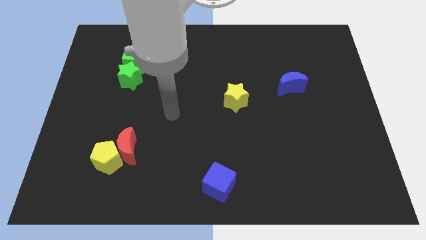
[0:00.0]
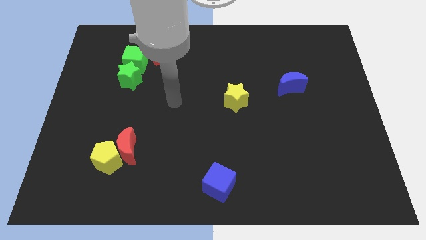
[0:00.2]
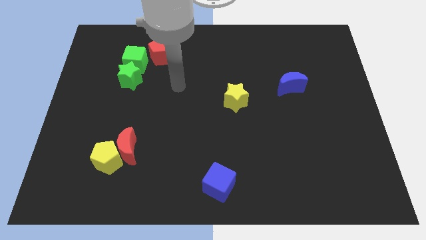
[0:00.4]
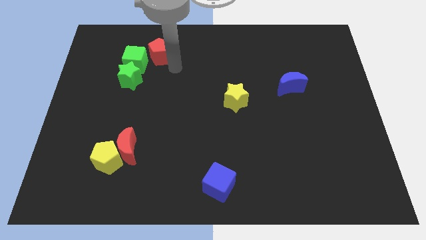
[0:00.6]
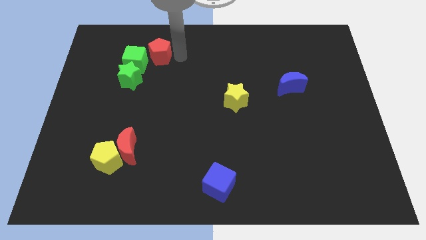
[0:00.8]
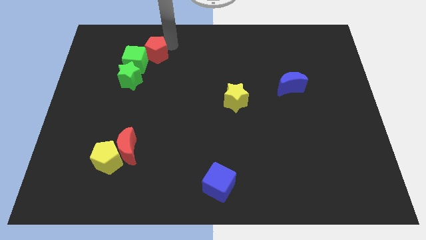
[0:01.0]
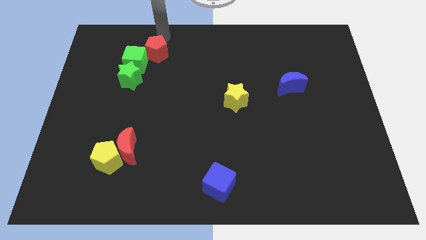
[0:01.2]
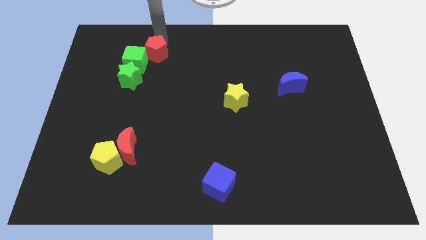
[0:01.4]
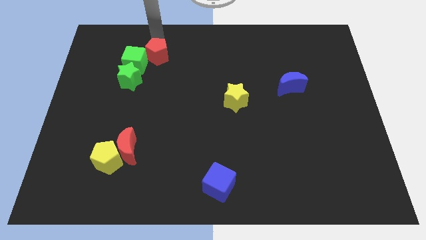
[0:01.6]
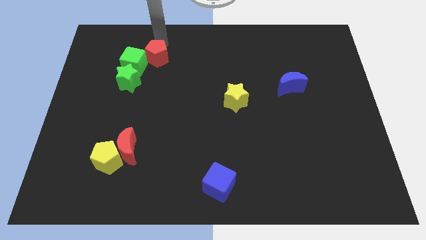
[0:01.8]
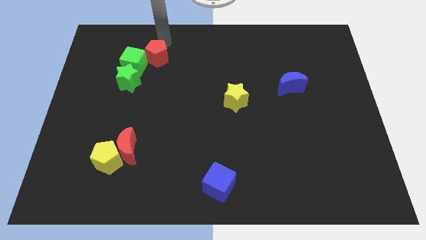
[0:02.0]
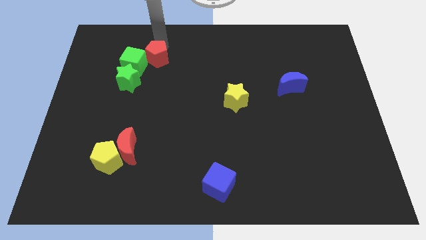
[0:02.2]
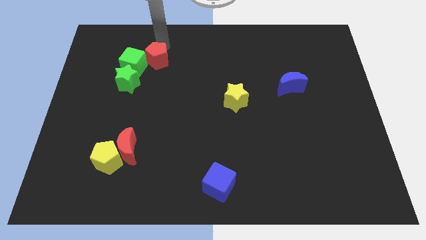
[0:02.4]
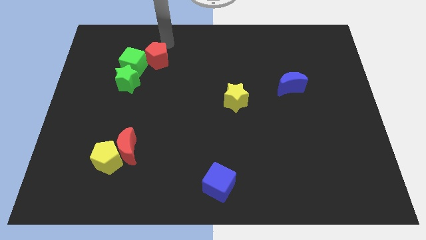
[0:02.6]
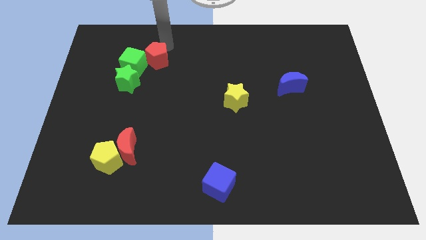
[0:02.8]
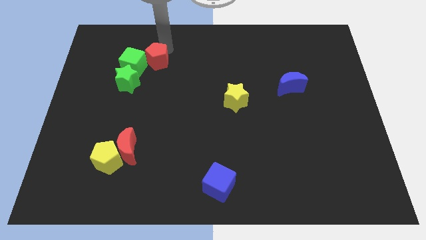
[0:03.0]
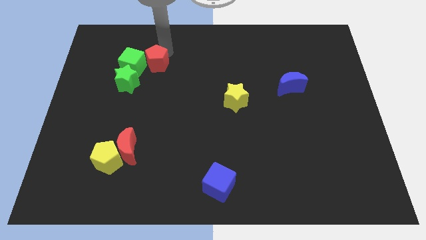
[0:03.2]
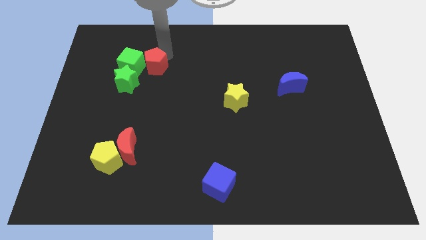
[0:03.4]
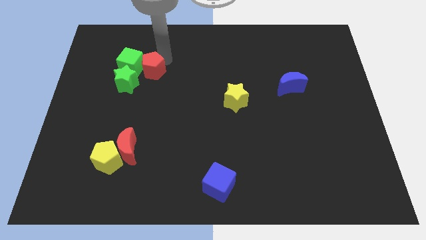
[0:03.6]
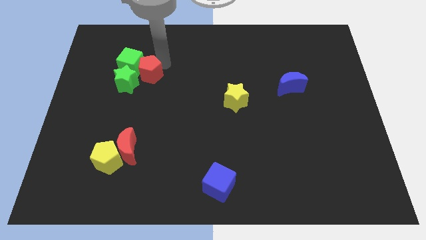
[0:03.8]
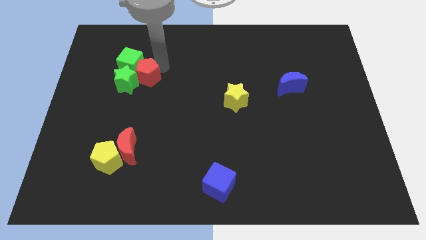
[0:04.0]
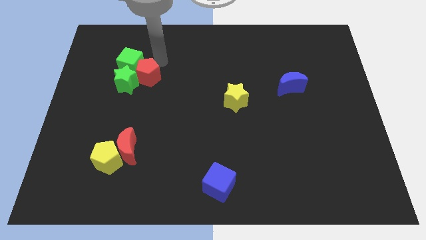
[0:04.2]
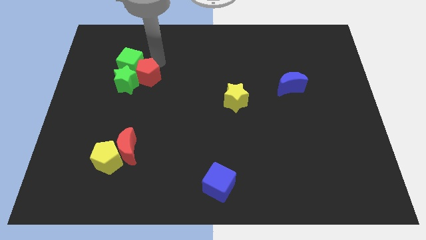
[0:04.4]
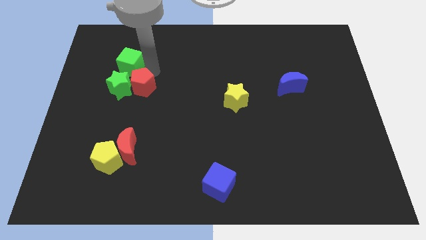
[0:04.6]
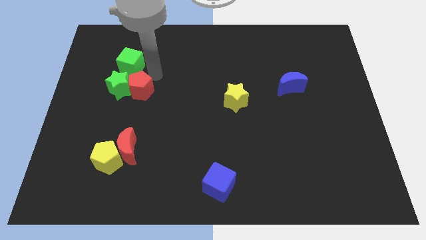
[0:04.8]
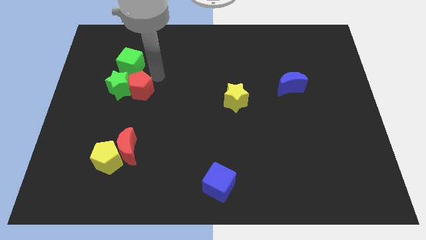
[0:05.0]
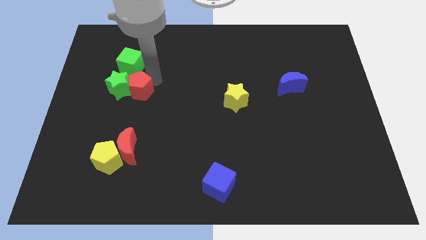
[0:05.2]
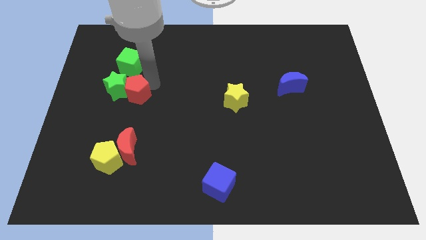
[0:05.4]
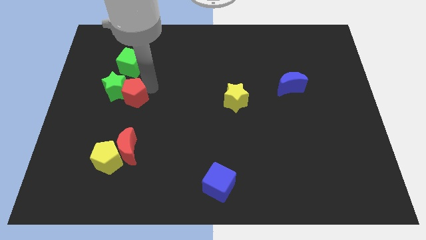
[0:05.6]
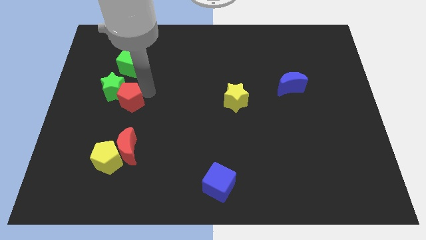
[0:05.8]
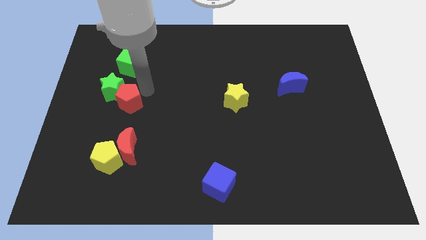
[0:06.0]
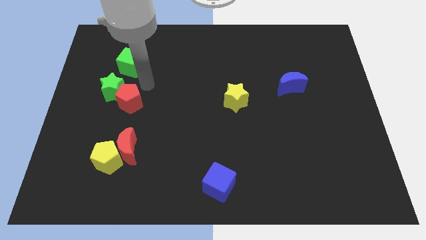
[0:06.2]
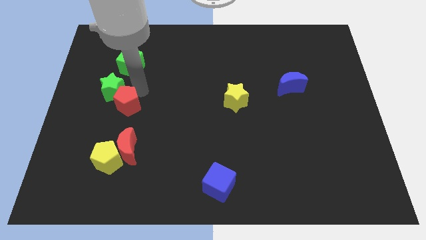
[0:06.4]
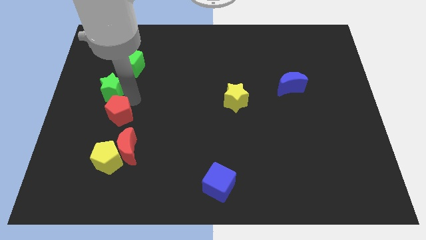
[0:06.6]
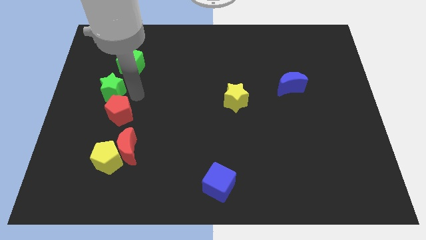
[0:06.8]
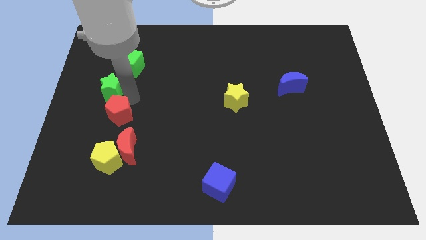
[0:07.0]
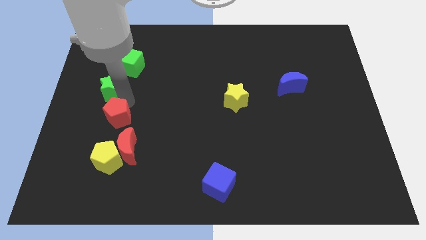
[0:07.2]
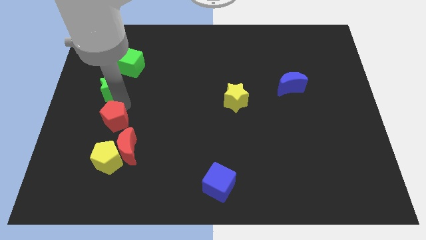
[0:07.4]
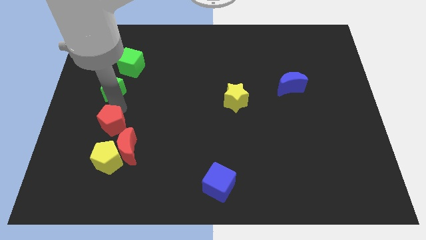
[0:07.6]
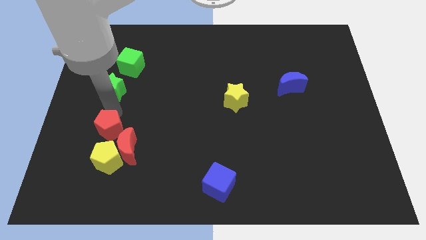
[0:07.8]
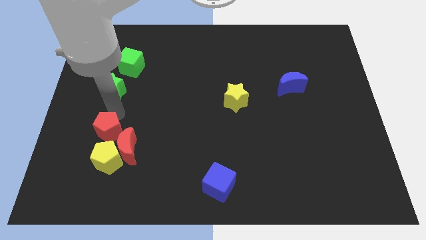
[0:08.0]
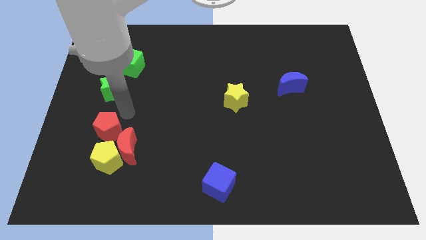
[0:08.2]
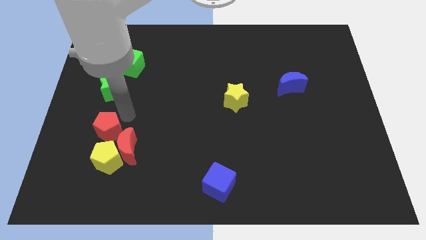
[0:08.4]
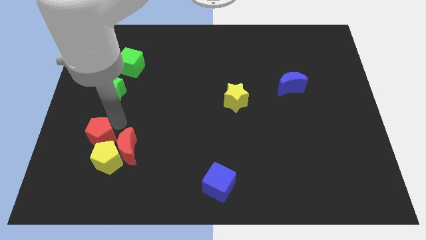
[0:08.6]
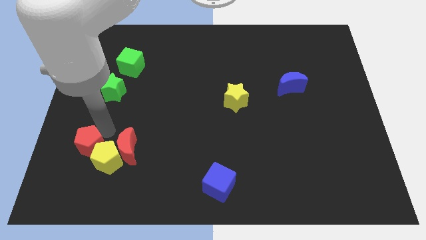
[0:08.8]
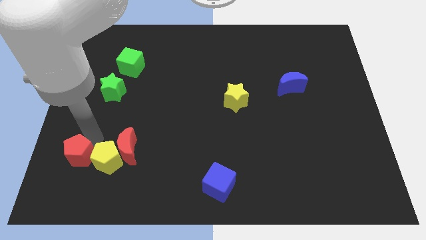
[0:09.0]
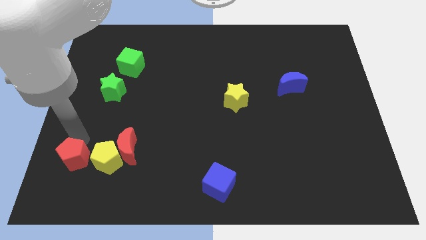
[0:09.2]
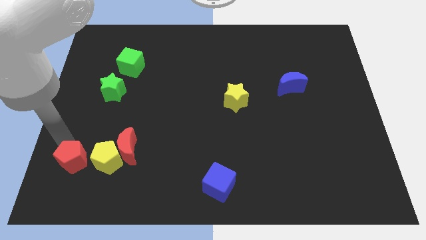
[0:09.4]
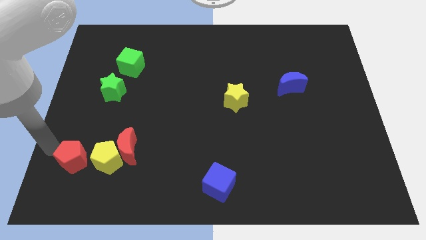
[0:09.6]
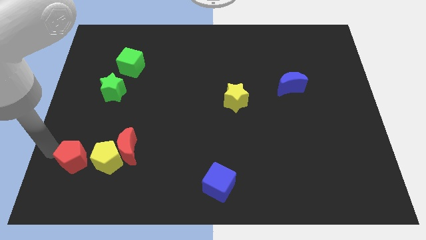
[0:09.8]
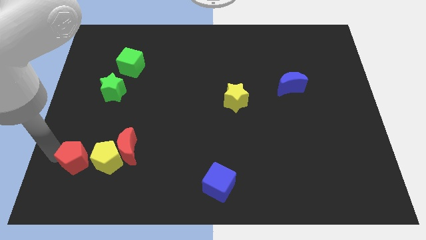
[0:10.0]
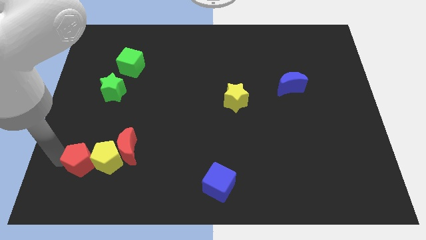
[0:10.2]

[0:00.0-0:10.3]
put the red pentagon to the bottom left side of the red moon

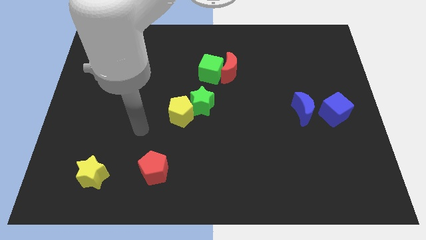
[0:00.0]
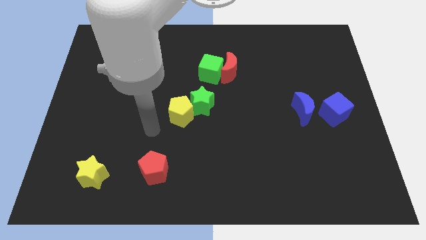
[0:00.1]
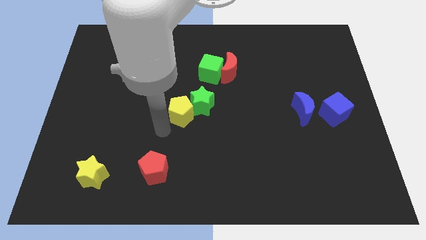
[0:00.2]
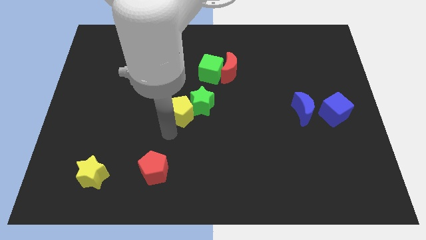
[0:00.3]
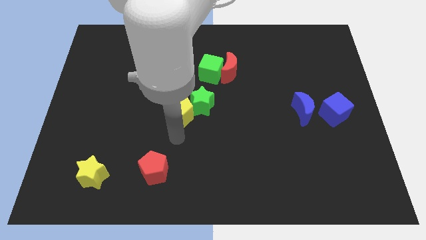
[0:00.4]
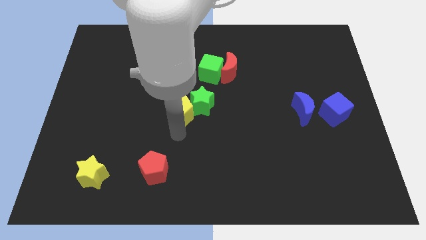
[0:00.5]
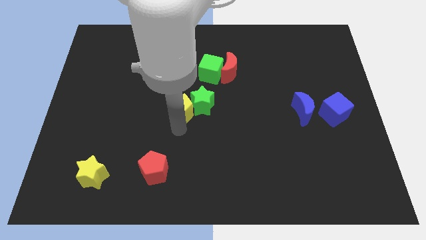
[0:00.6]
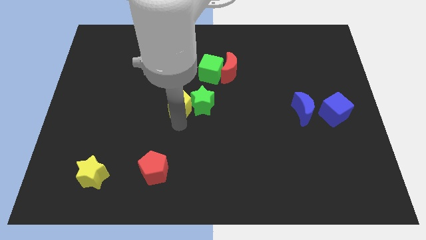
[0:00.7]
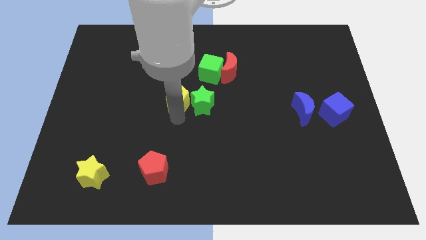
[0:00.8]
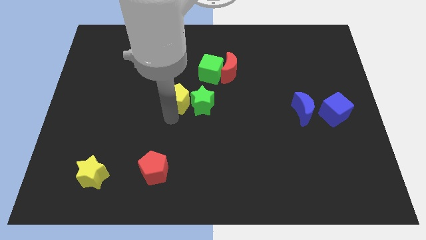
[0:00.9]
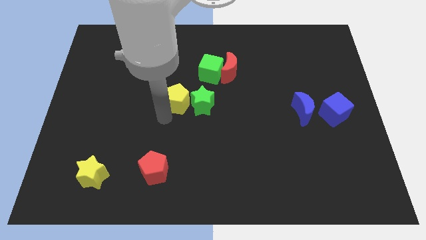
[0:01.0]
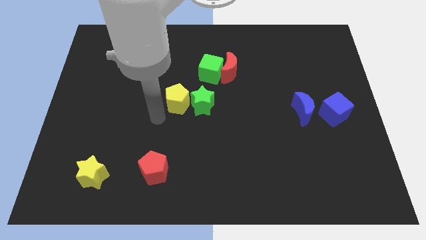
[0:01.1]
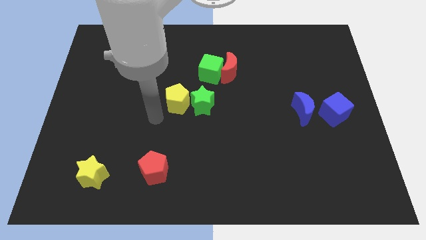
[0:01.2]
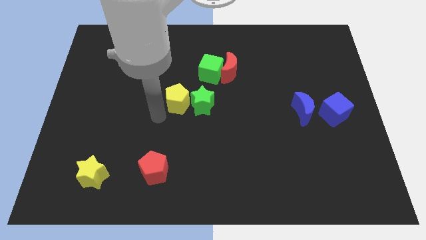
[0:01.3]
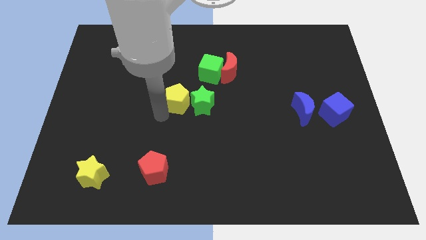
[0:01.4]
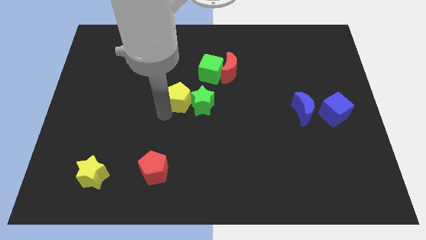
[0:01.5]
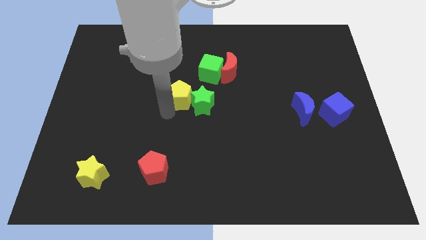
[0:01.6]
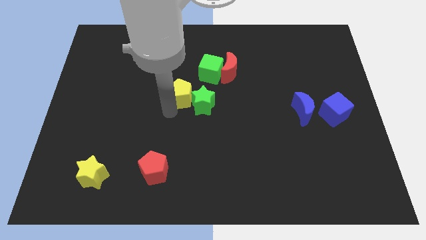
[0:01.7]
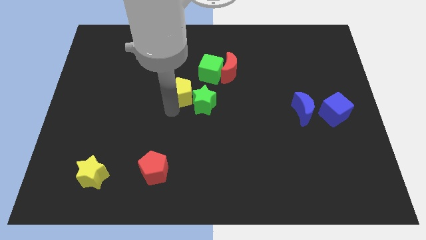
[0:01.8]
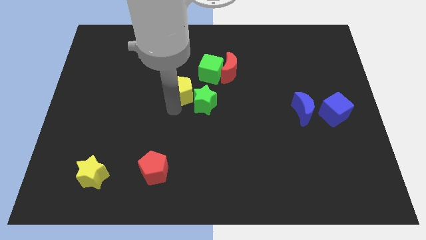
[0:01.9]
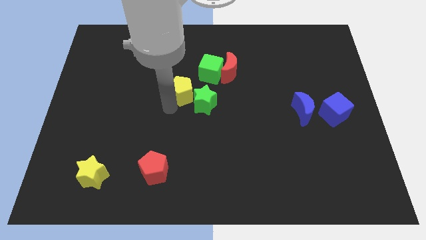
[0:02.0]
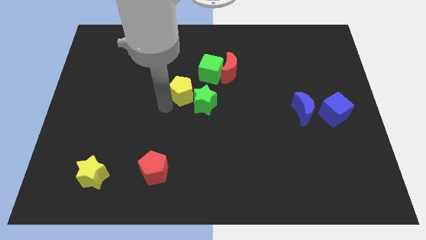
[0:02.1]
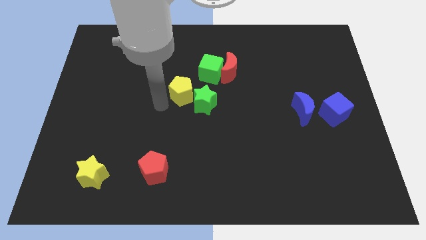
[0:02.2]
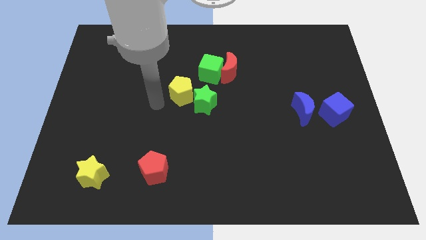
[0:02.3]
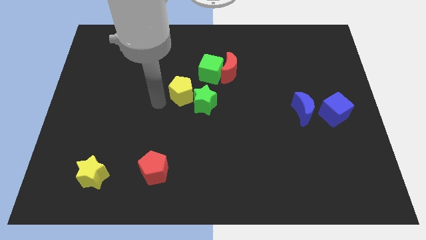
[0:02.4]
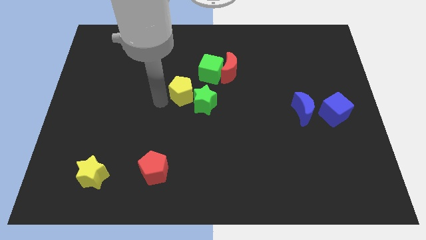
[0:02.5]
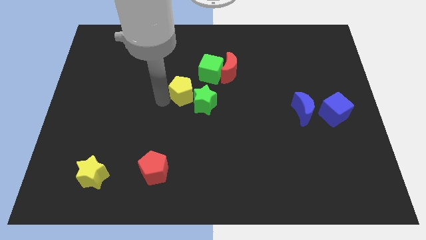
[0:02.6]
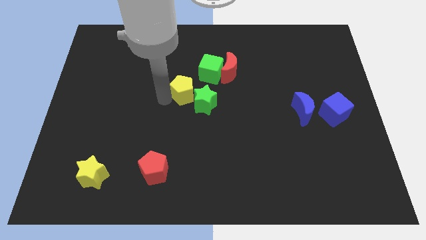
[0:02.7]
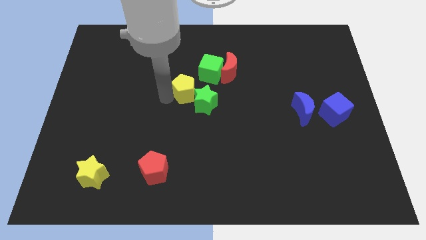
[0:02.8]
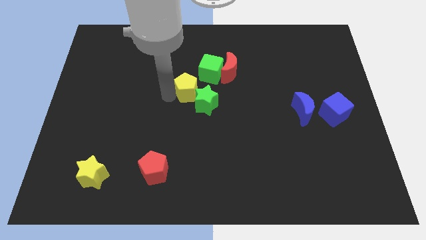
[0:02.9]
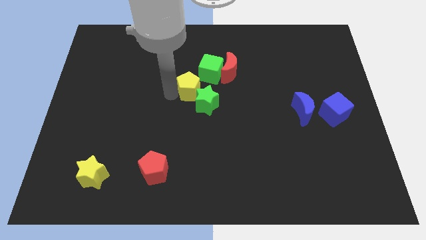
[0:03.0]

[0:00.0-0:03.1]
push the yellow pentagon to the bottom left side of the red moon
